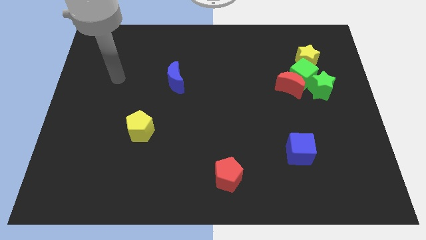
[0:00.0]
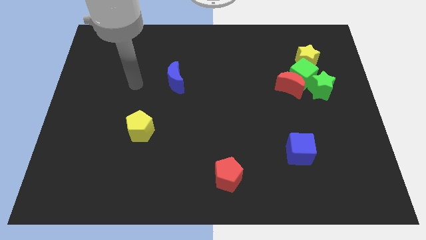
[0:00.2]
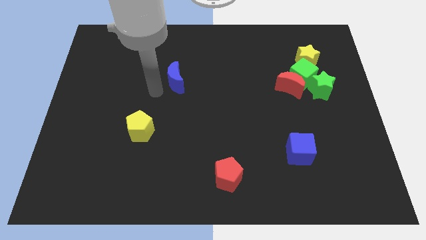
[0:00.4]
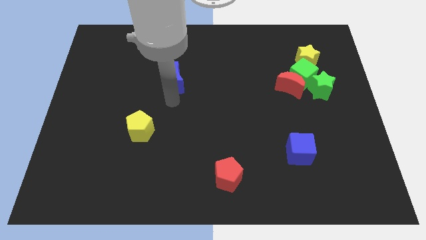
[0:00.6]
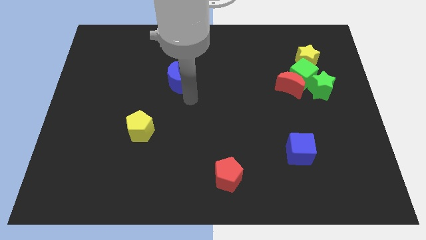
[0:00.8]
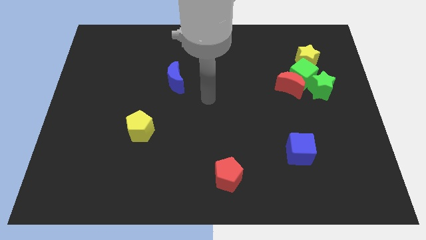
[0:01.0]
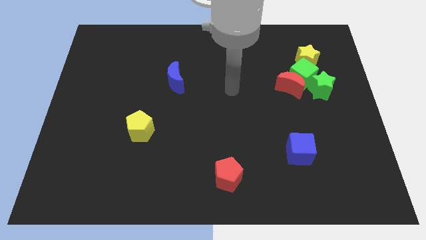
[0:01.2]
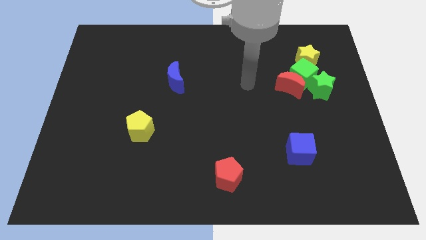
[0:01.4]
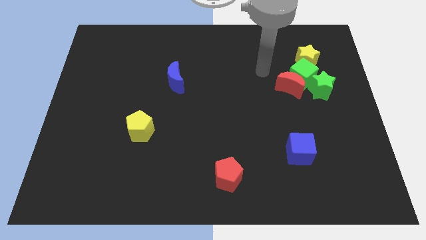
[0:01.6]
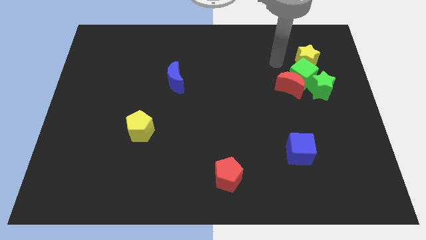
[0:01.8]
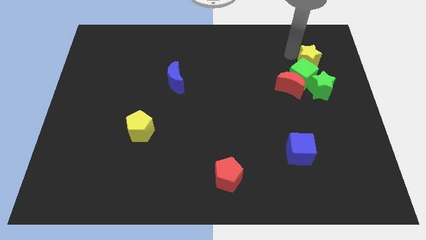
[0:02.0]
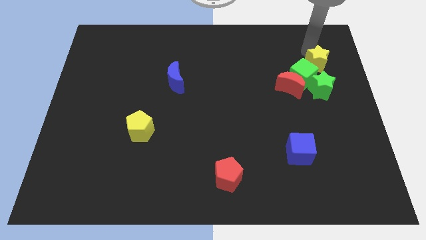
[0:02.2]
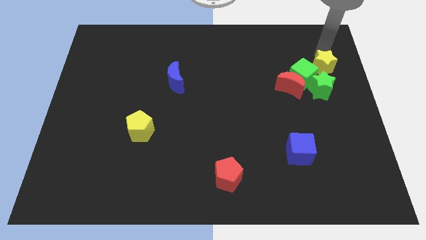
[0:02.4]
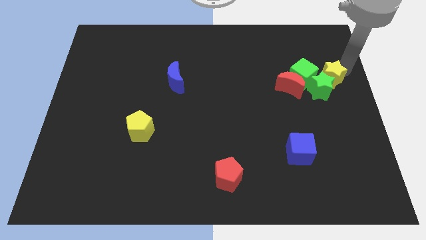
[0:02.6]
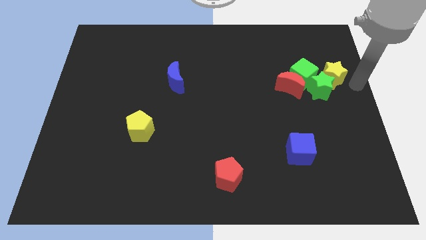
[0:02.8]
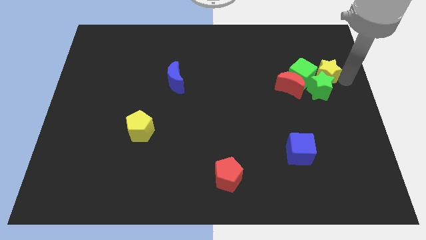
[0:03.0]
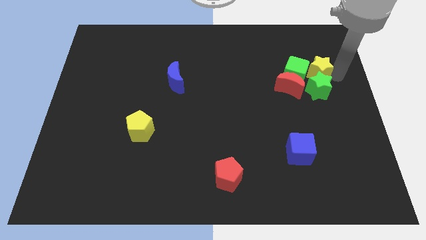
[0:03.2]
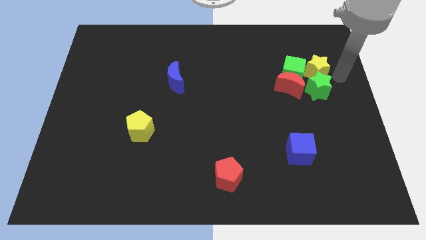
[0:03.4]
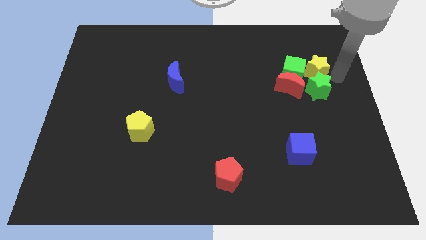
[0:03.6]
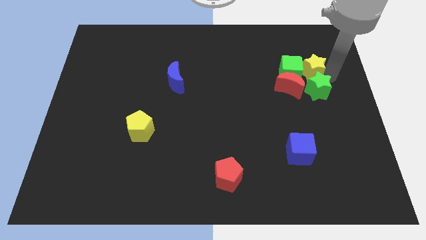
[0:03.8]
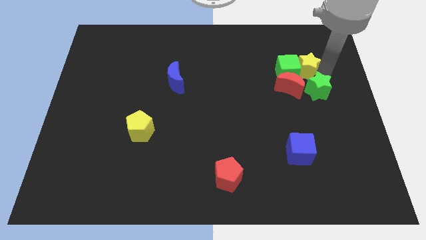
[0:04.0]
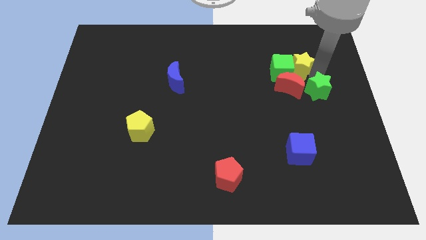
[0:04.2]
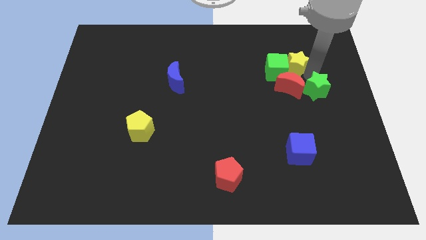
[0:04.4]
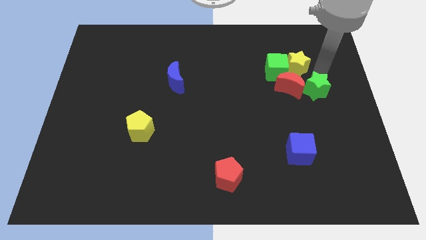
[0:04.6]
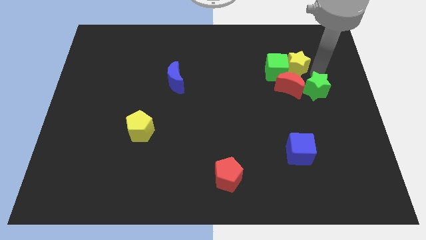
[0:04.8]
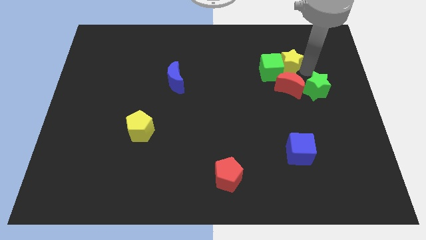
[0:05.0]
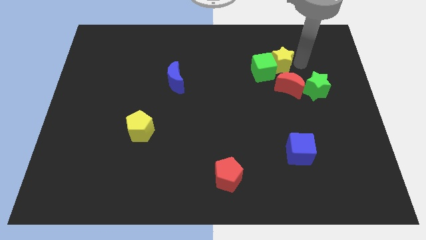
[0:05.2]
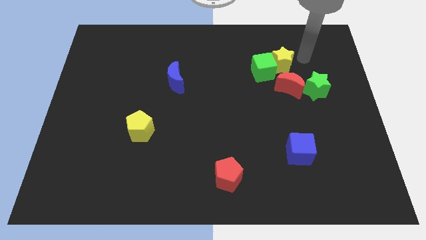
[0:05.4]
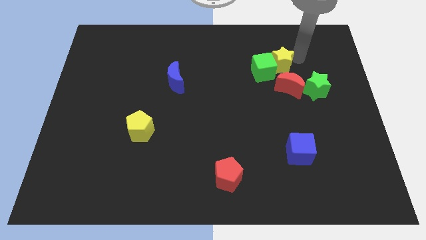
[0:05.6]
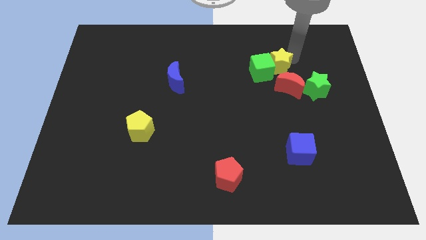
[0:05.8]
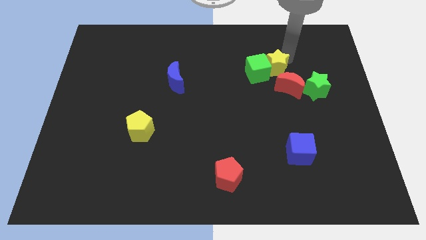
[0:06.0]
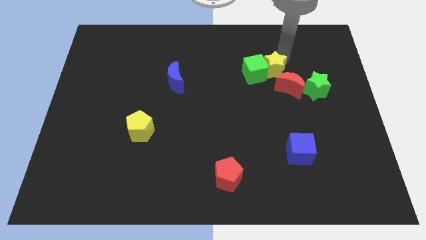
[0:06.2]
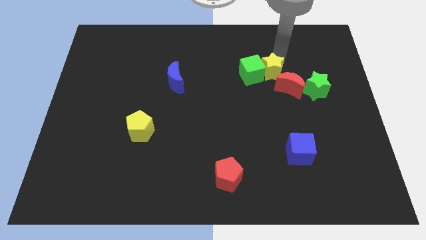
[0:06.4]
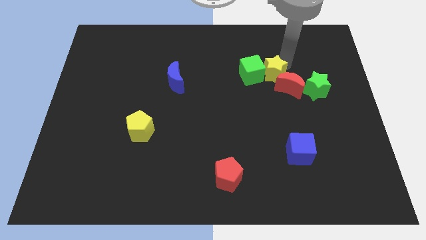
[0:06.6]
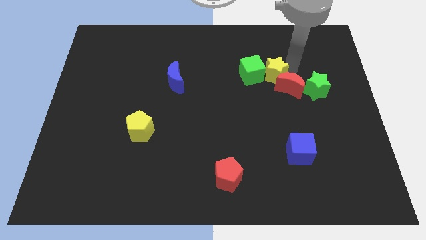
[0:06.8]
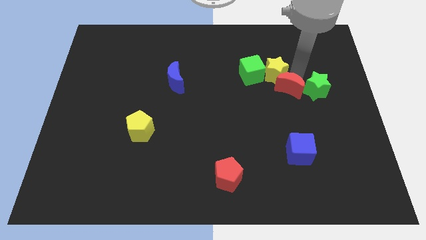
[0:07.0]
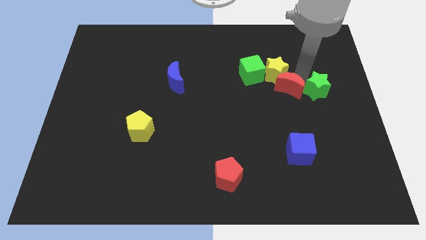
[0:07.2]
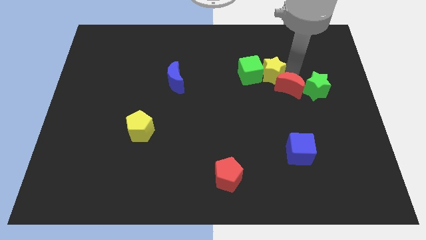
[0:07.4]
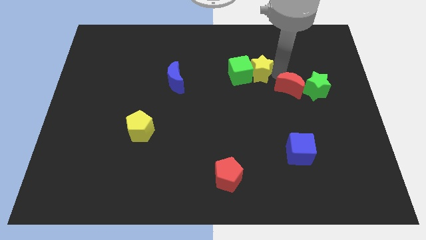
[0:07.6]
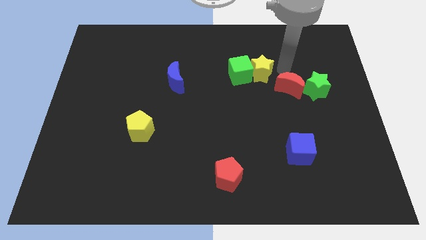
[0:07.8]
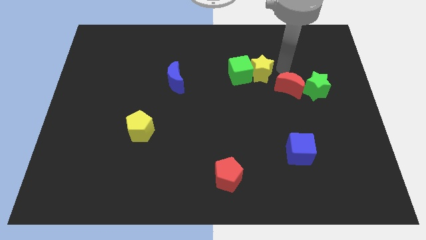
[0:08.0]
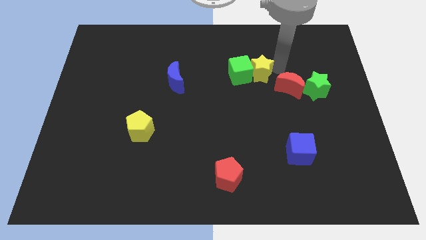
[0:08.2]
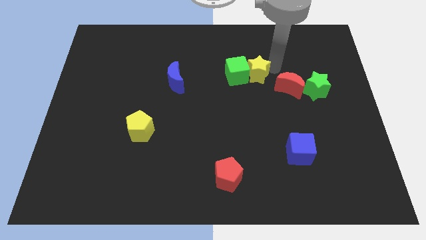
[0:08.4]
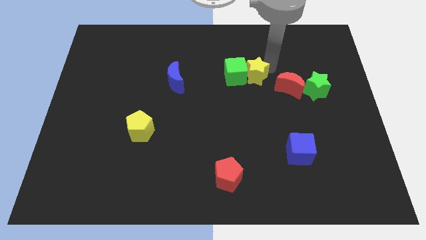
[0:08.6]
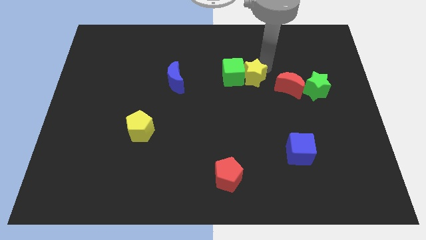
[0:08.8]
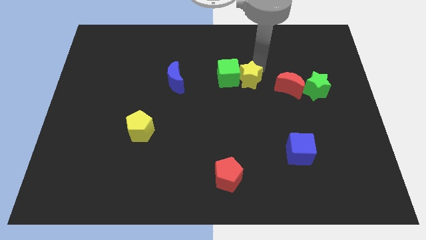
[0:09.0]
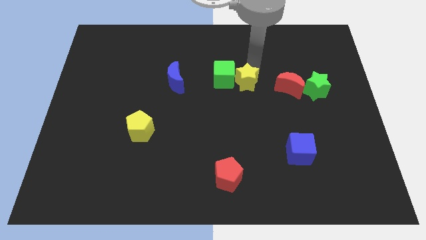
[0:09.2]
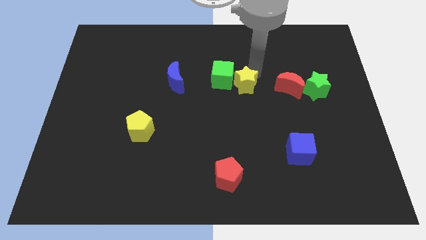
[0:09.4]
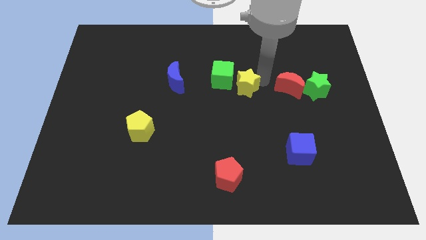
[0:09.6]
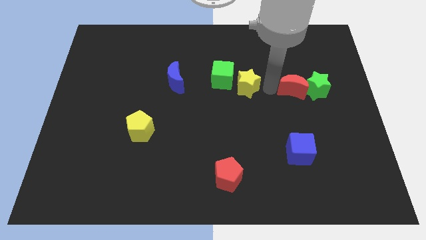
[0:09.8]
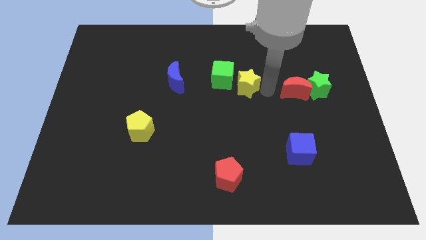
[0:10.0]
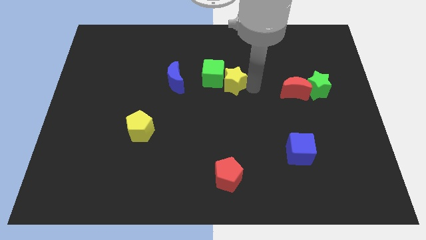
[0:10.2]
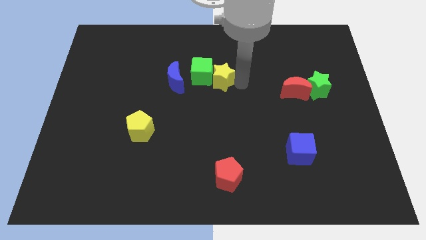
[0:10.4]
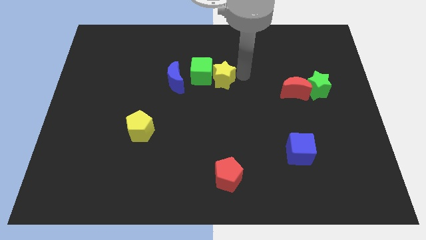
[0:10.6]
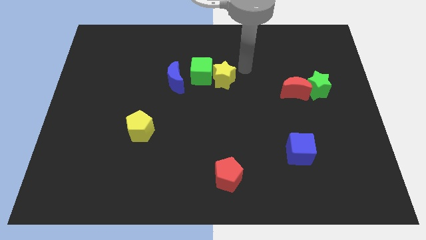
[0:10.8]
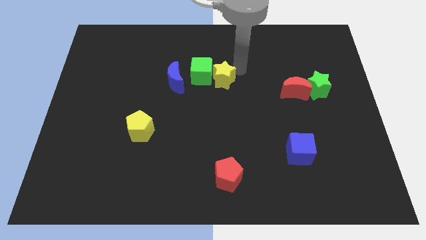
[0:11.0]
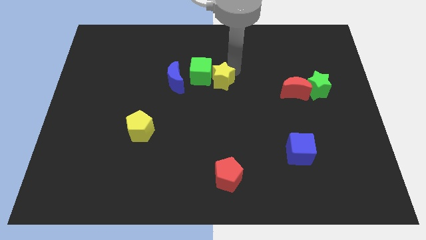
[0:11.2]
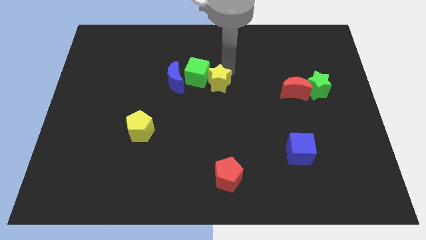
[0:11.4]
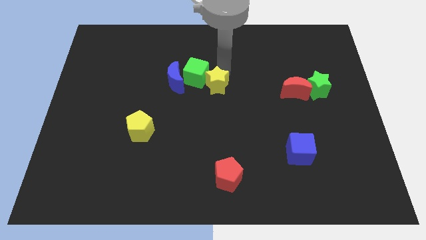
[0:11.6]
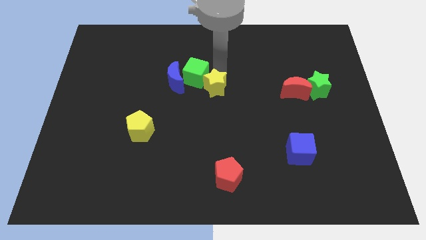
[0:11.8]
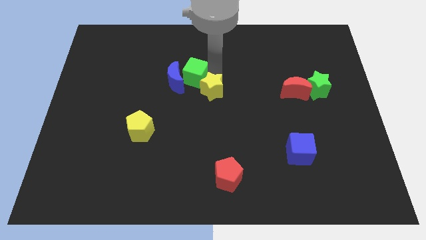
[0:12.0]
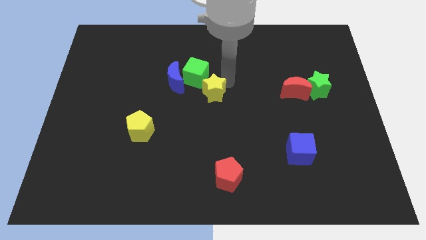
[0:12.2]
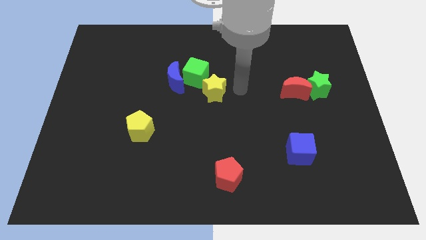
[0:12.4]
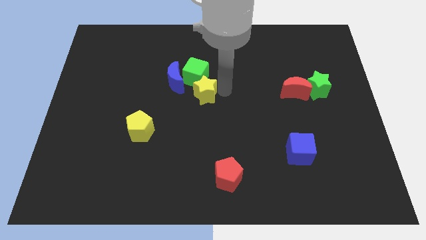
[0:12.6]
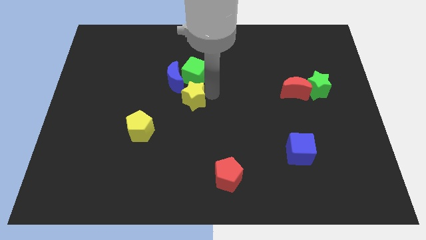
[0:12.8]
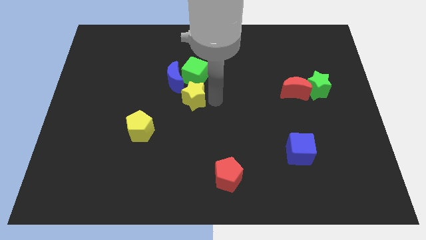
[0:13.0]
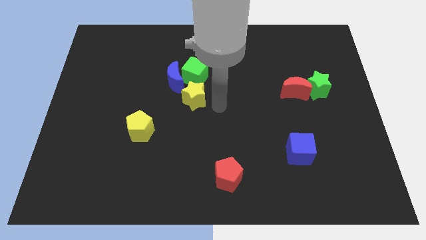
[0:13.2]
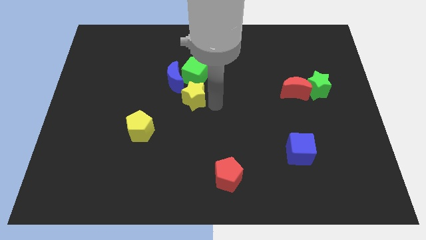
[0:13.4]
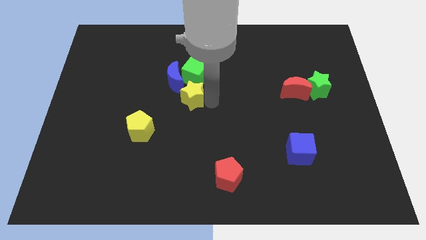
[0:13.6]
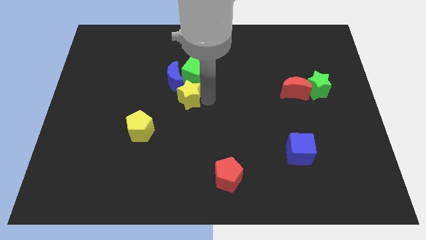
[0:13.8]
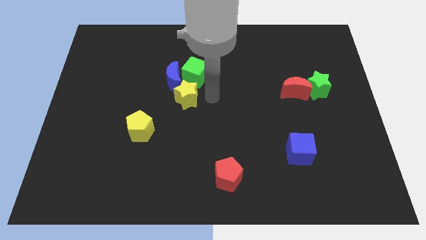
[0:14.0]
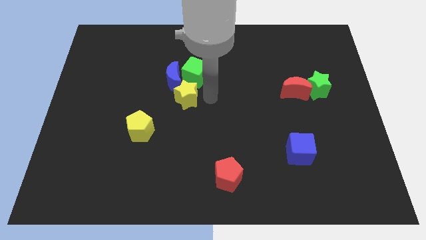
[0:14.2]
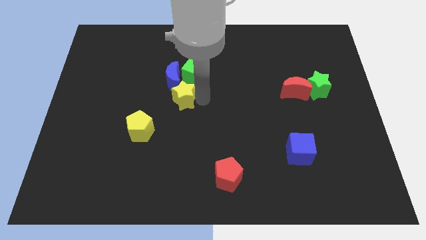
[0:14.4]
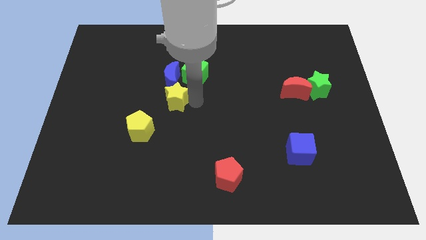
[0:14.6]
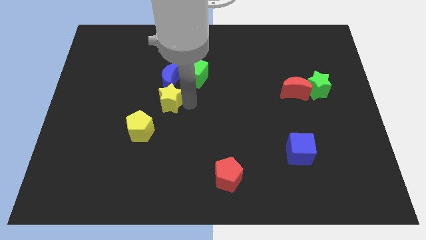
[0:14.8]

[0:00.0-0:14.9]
put the yellow star to the bottom left of the blue moon
